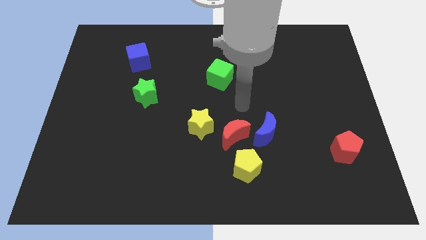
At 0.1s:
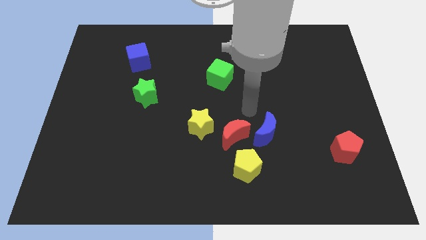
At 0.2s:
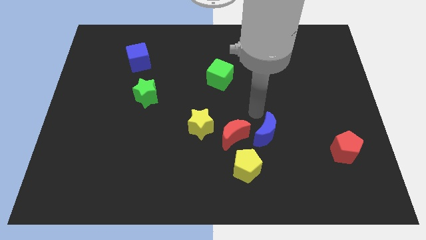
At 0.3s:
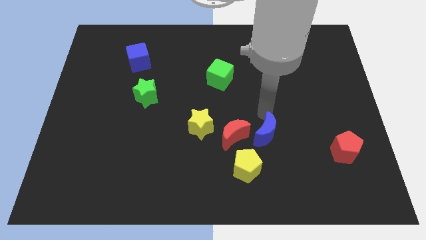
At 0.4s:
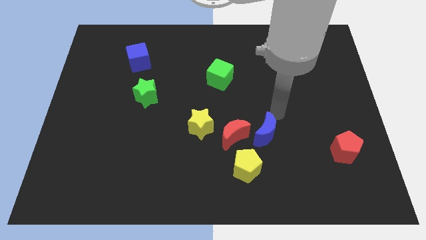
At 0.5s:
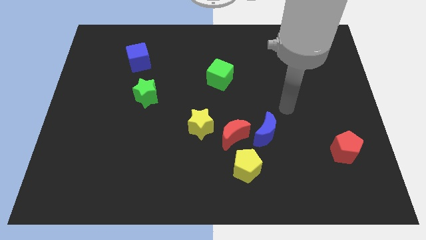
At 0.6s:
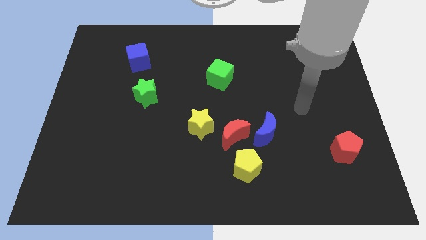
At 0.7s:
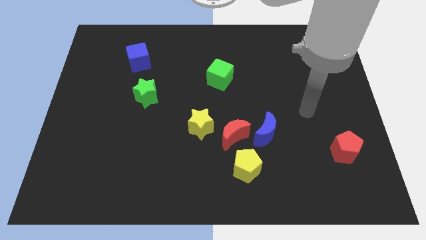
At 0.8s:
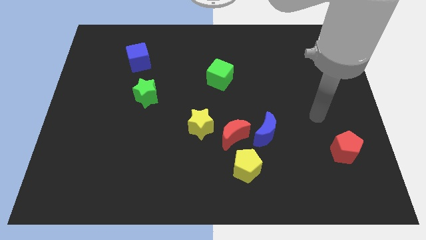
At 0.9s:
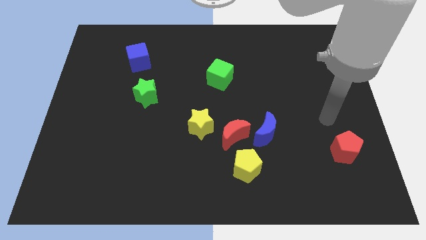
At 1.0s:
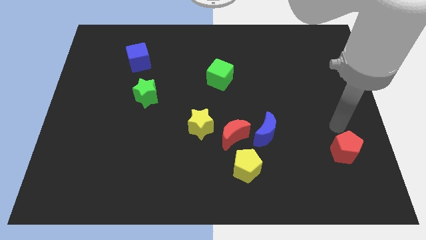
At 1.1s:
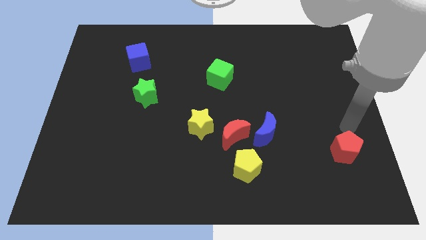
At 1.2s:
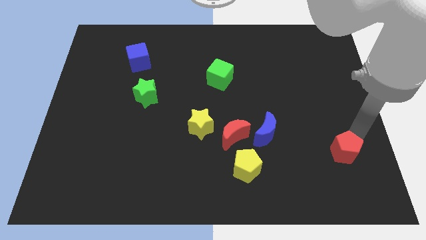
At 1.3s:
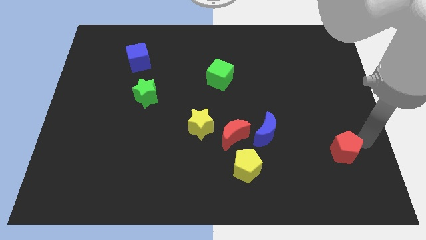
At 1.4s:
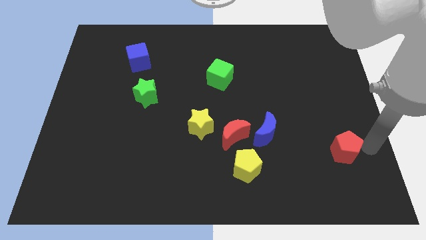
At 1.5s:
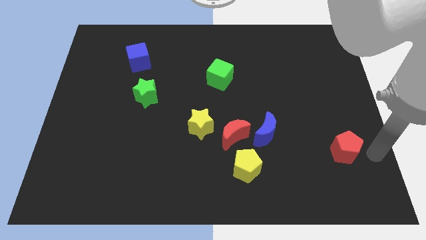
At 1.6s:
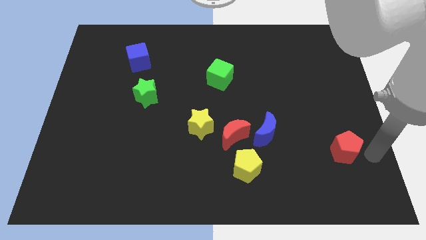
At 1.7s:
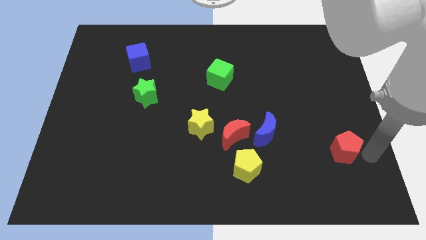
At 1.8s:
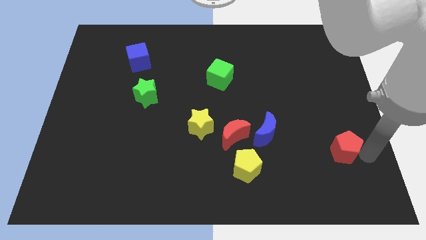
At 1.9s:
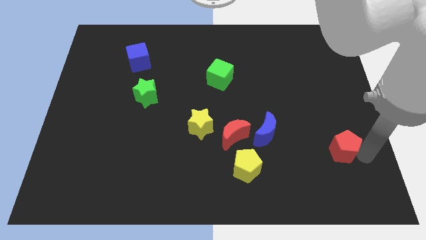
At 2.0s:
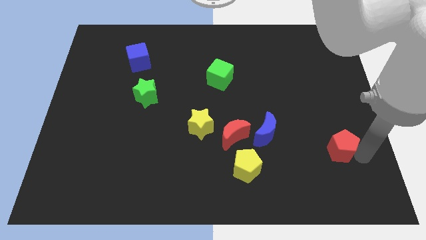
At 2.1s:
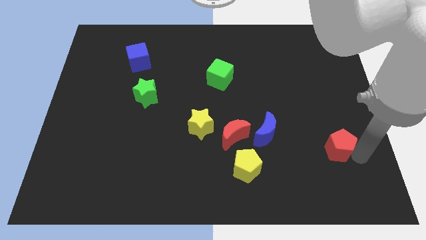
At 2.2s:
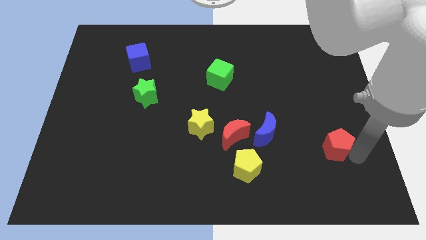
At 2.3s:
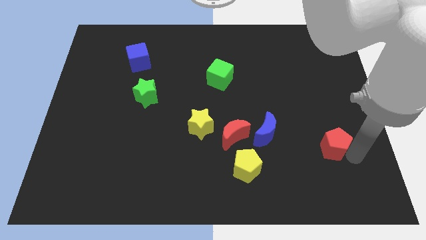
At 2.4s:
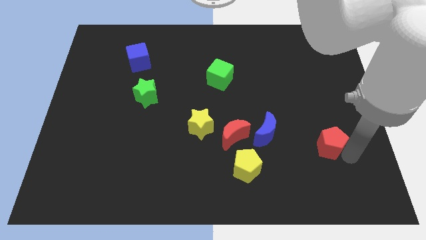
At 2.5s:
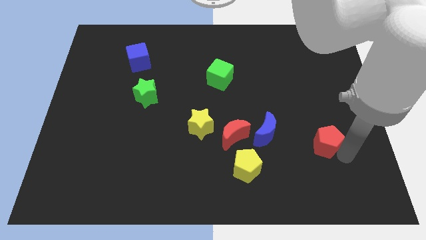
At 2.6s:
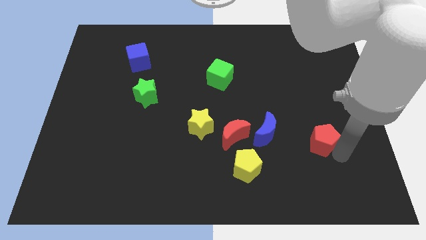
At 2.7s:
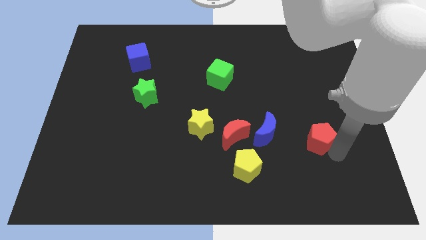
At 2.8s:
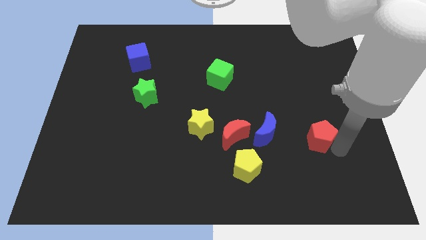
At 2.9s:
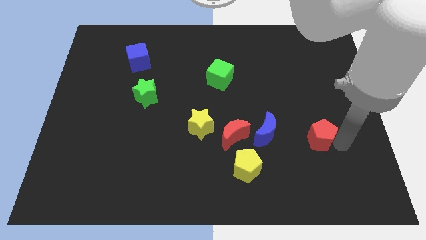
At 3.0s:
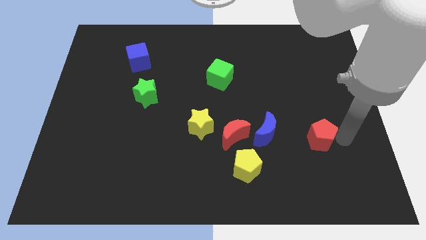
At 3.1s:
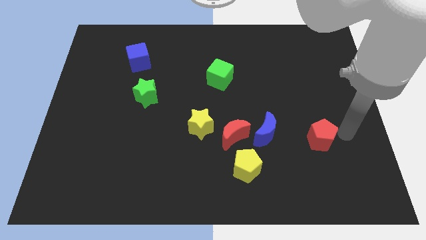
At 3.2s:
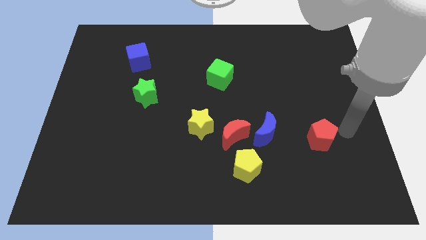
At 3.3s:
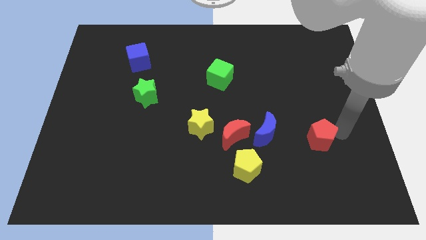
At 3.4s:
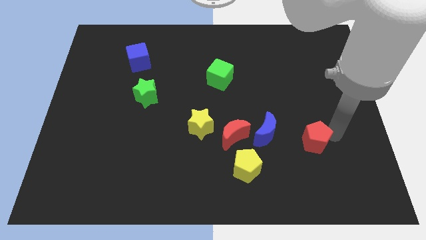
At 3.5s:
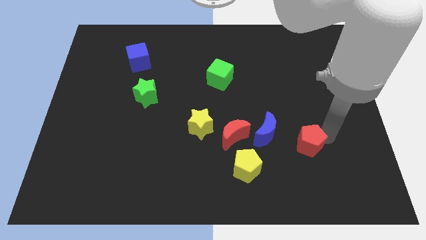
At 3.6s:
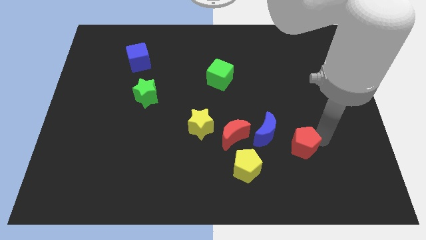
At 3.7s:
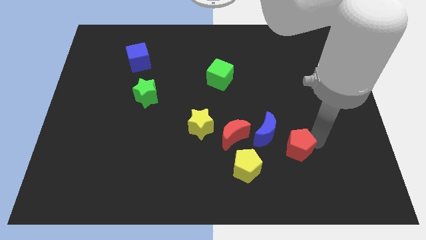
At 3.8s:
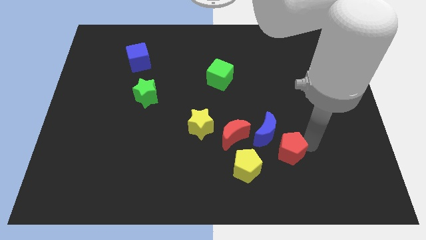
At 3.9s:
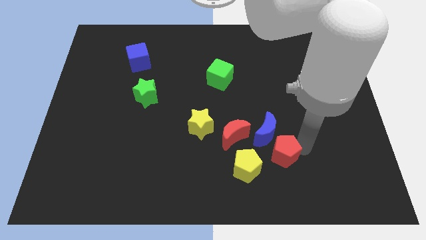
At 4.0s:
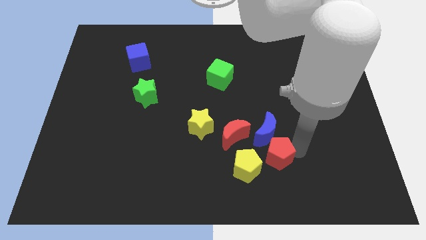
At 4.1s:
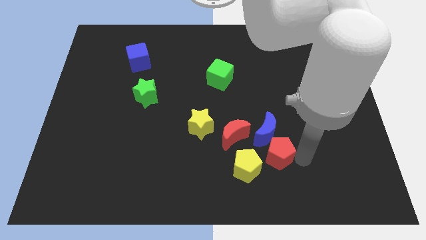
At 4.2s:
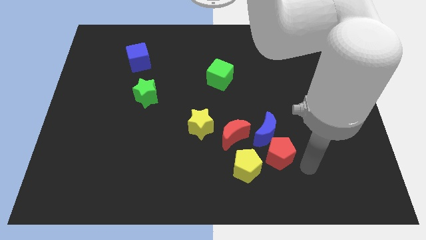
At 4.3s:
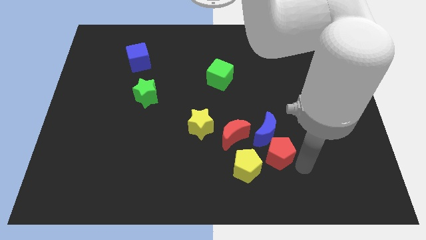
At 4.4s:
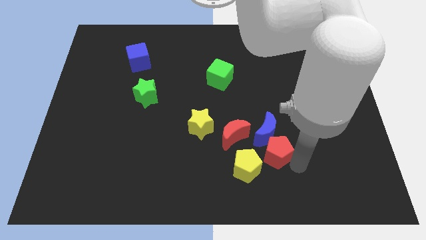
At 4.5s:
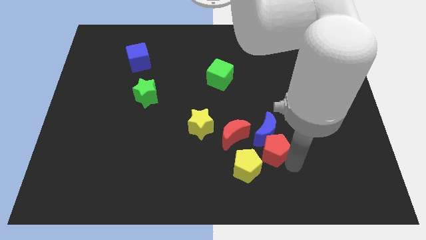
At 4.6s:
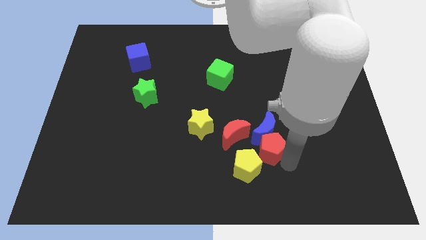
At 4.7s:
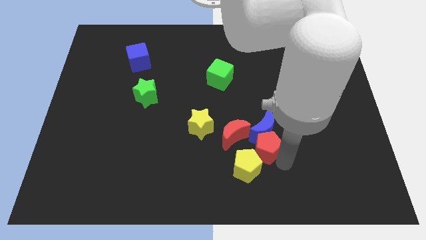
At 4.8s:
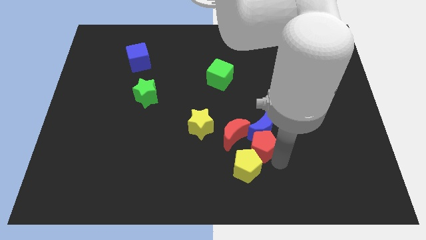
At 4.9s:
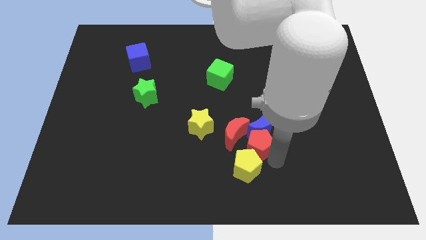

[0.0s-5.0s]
move the red pentagon close to the red moon

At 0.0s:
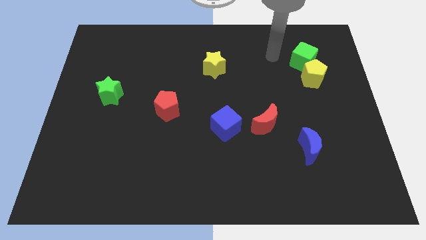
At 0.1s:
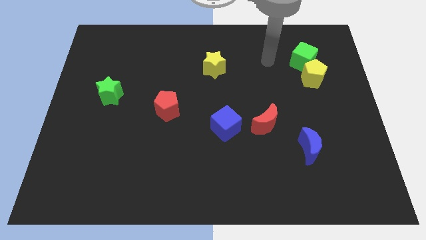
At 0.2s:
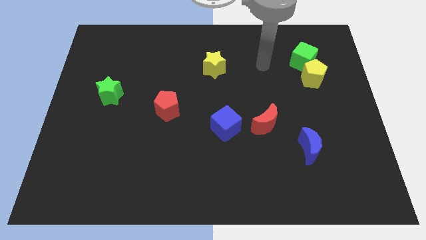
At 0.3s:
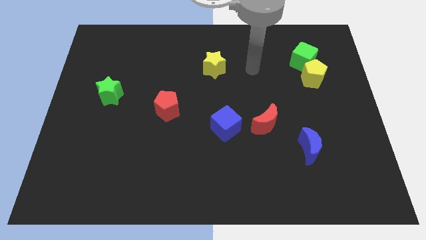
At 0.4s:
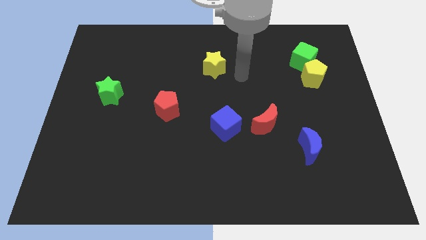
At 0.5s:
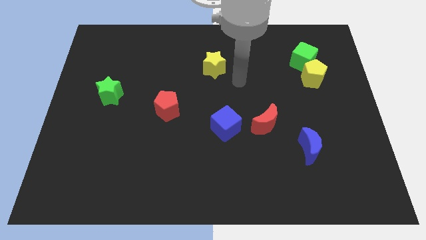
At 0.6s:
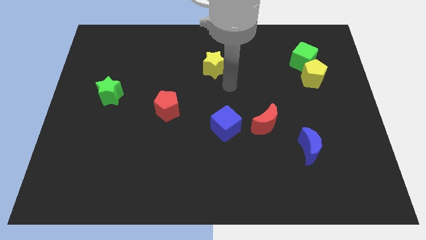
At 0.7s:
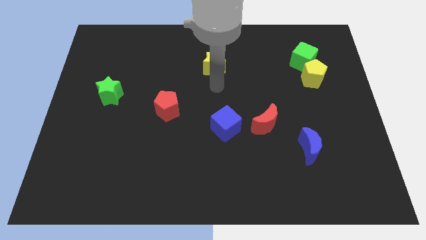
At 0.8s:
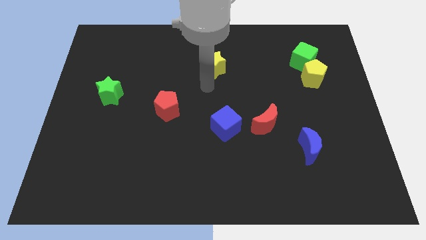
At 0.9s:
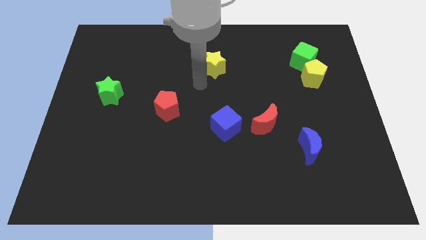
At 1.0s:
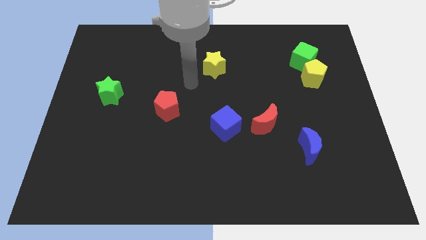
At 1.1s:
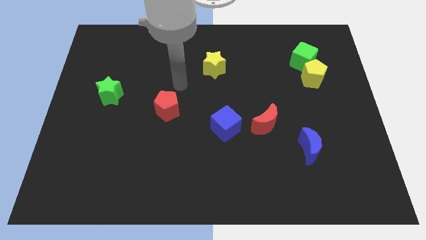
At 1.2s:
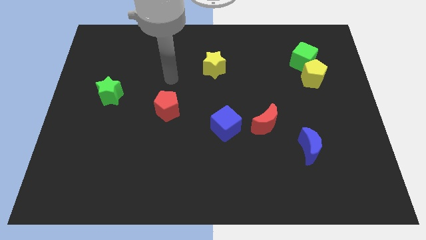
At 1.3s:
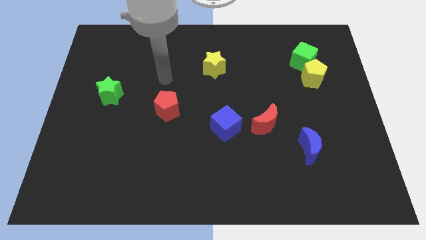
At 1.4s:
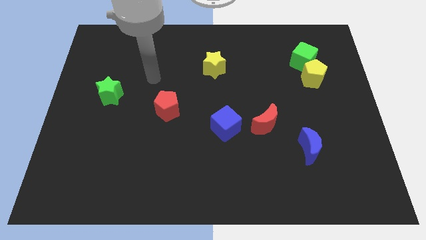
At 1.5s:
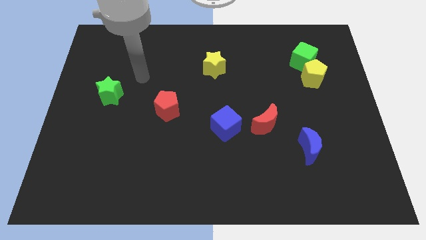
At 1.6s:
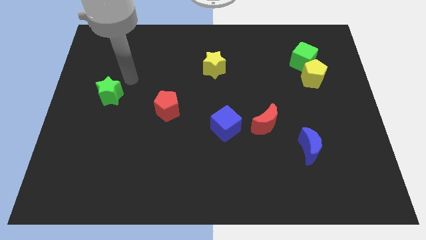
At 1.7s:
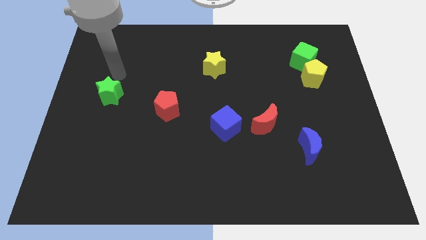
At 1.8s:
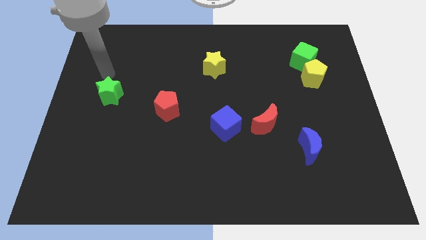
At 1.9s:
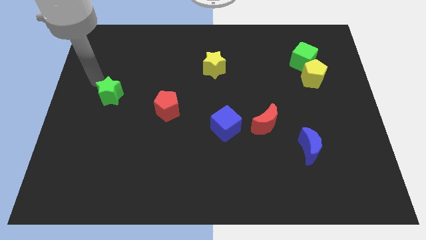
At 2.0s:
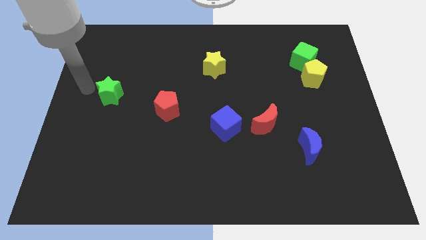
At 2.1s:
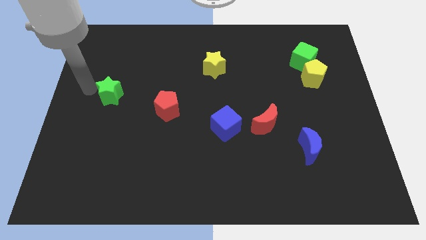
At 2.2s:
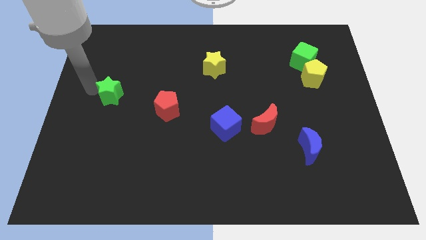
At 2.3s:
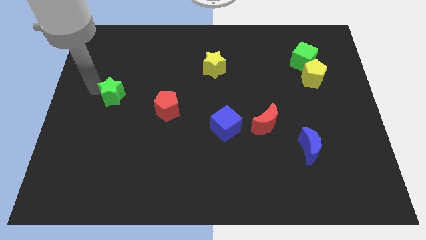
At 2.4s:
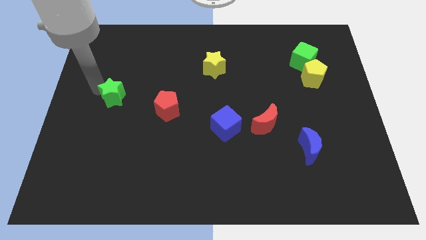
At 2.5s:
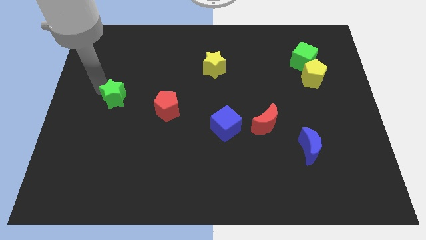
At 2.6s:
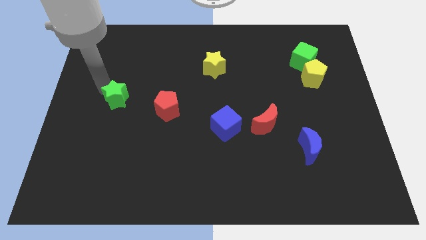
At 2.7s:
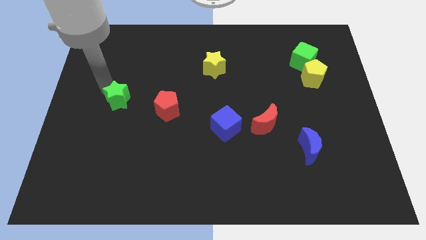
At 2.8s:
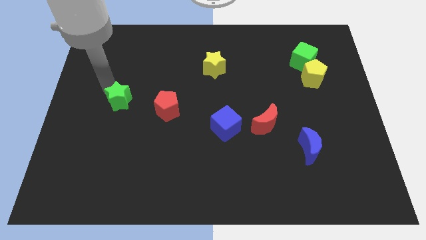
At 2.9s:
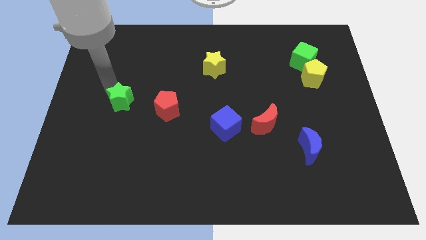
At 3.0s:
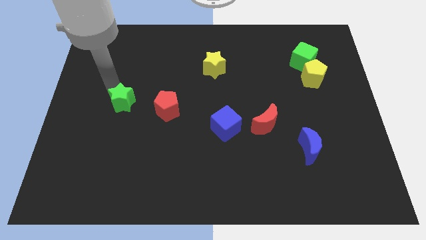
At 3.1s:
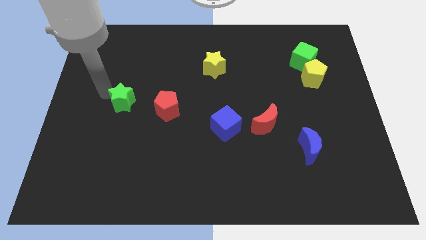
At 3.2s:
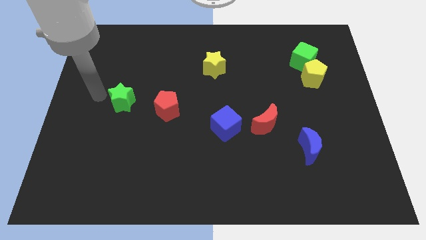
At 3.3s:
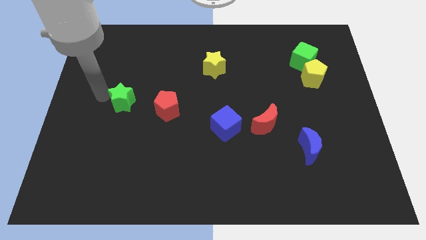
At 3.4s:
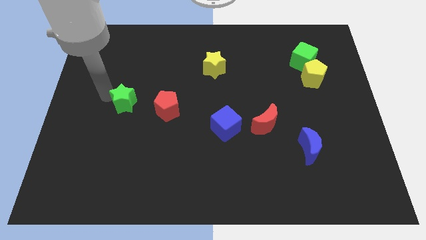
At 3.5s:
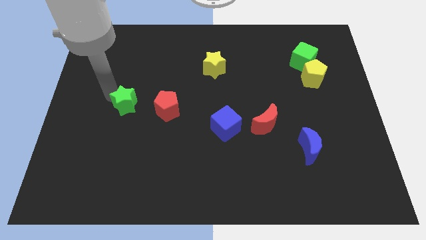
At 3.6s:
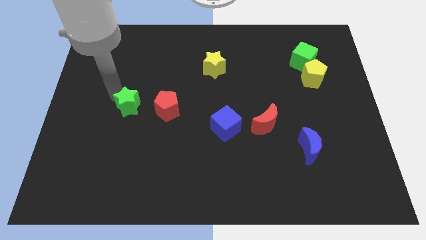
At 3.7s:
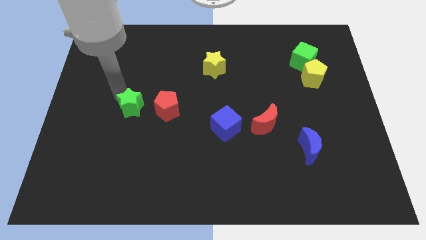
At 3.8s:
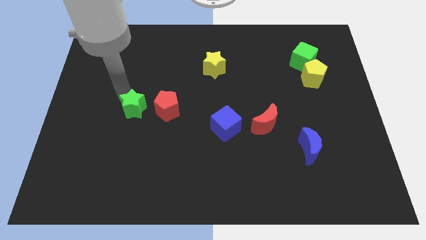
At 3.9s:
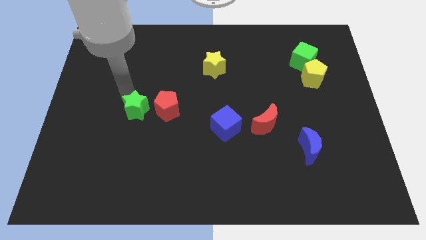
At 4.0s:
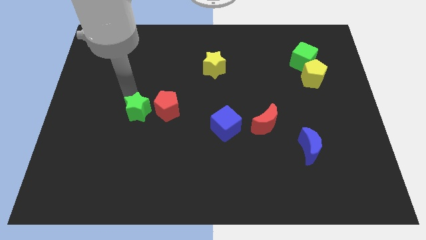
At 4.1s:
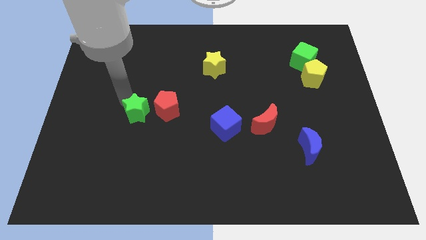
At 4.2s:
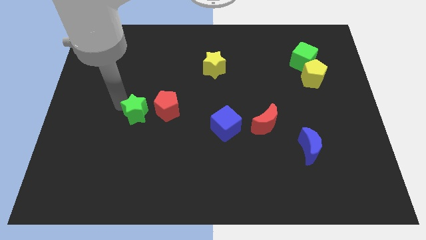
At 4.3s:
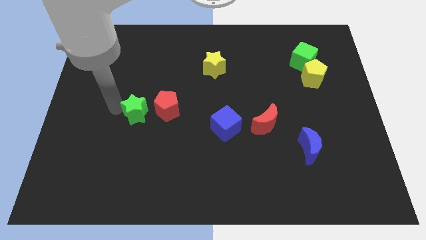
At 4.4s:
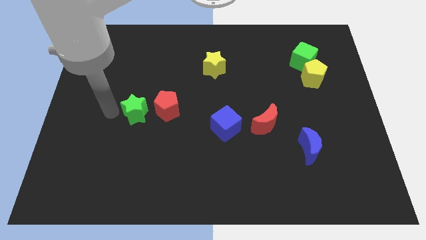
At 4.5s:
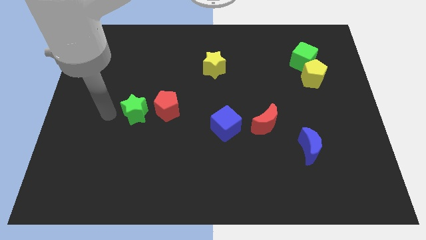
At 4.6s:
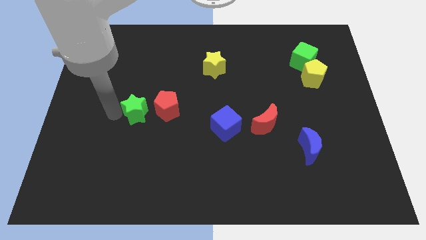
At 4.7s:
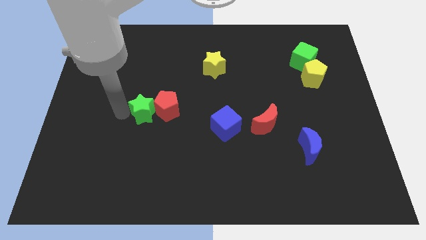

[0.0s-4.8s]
put the green star to the red pentagon
